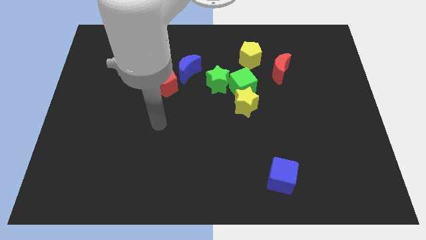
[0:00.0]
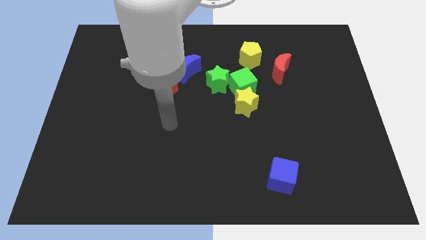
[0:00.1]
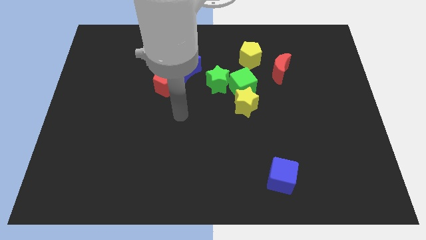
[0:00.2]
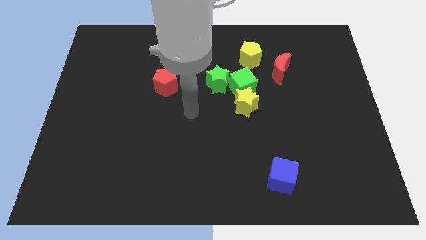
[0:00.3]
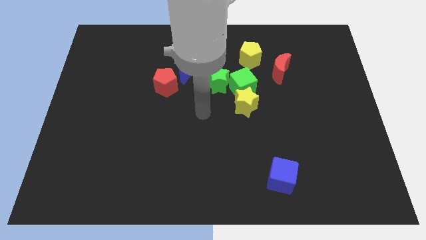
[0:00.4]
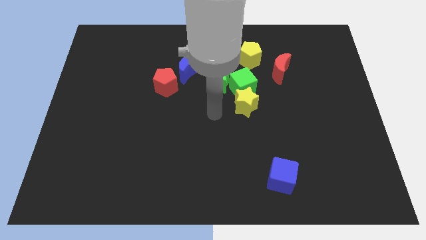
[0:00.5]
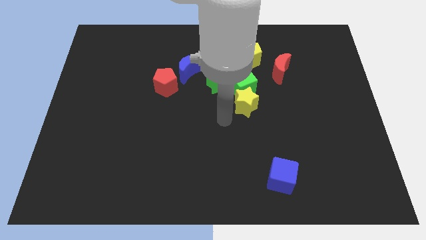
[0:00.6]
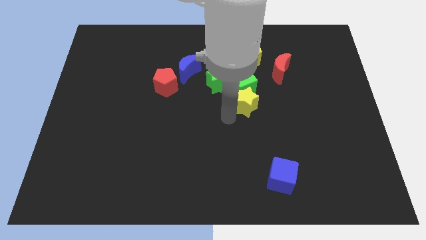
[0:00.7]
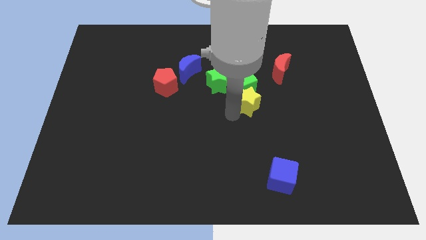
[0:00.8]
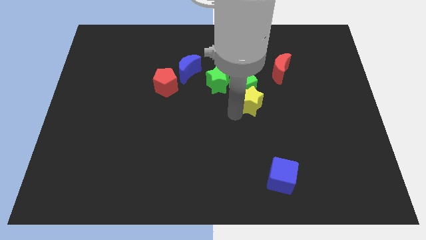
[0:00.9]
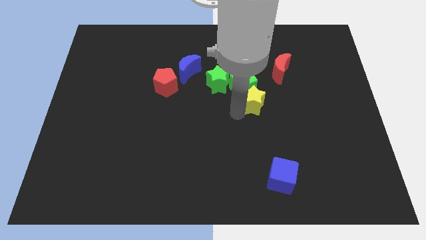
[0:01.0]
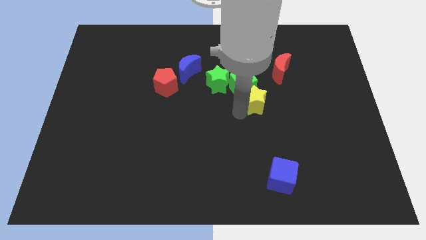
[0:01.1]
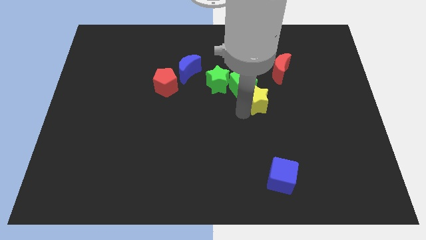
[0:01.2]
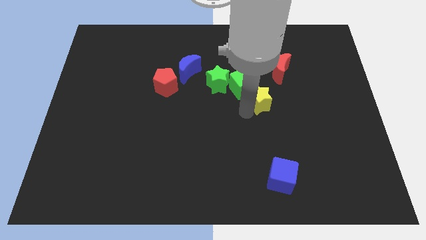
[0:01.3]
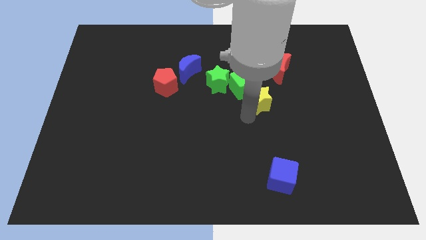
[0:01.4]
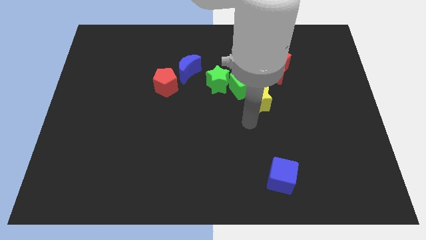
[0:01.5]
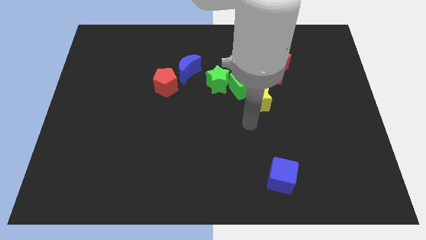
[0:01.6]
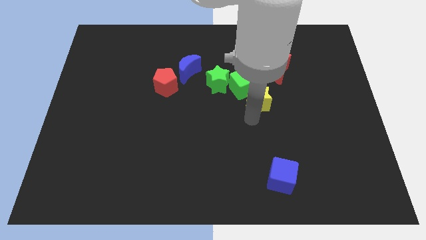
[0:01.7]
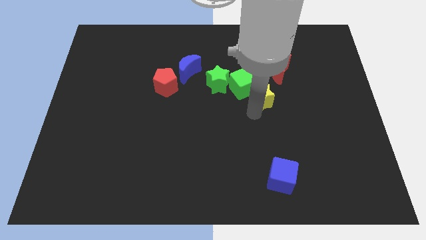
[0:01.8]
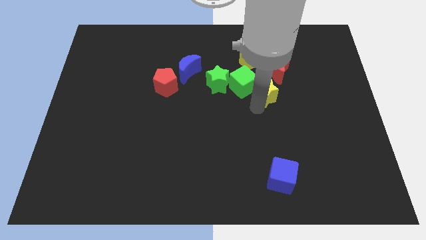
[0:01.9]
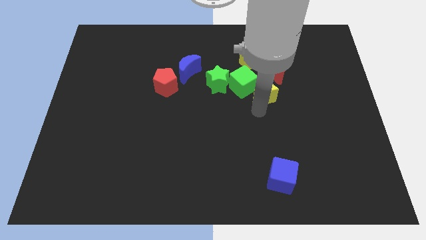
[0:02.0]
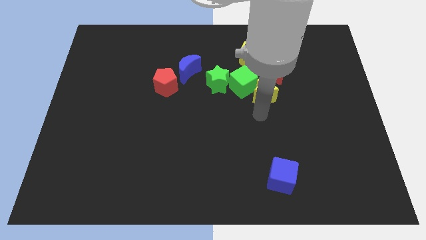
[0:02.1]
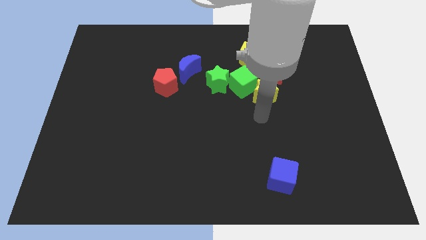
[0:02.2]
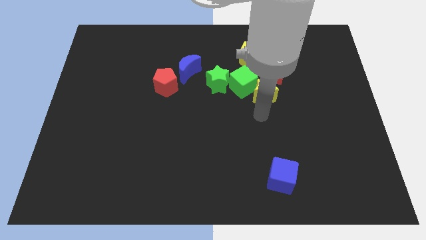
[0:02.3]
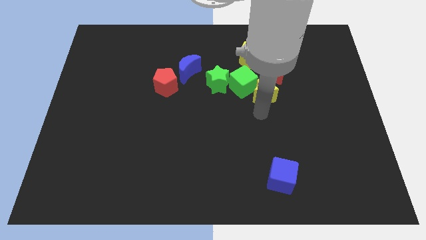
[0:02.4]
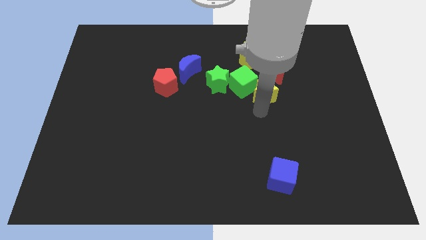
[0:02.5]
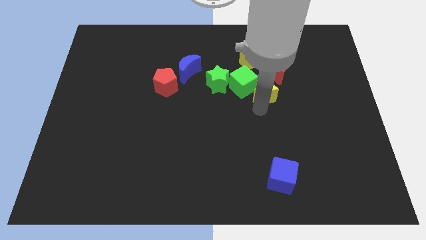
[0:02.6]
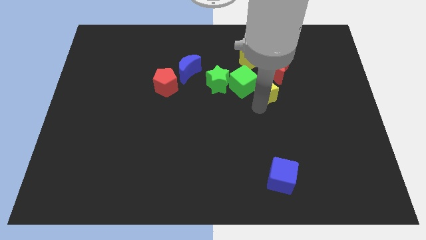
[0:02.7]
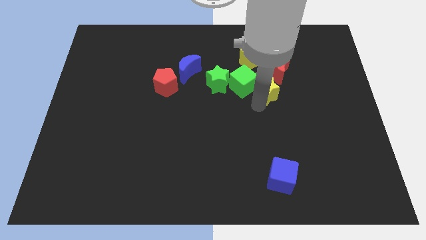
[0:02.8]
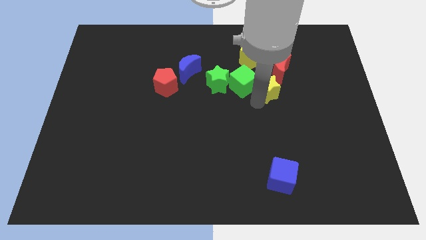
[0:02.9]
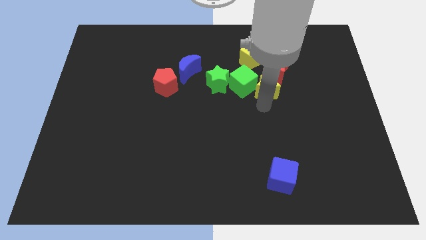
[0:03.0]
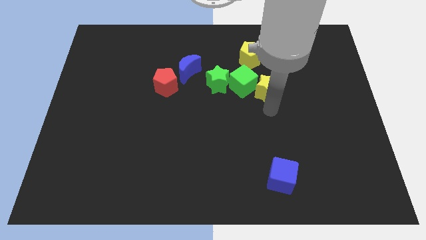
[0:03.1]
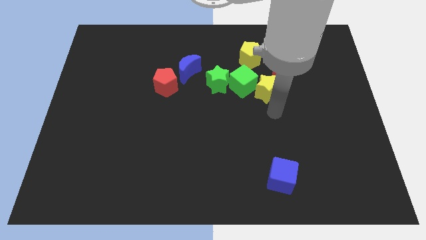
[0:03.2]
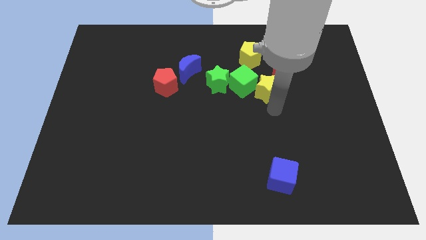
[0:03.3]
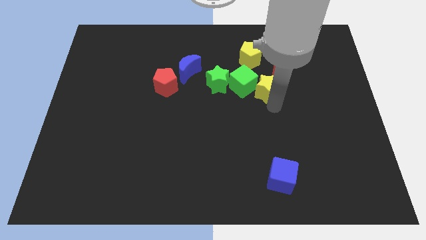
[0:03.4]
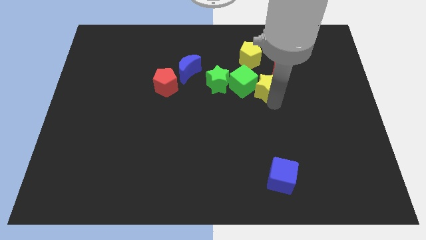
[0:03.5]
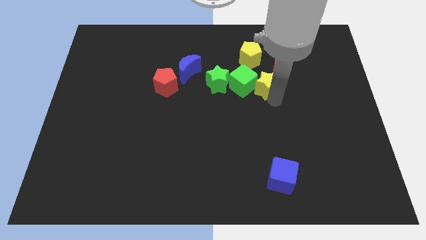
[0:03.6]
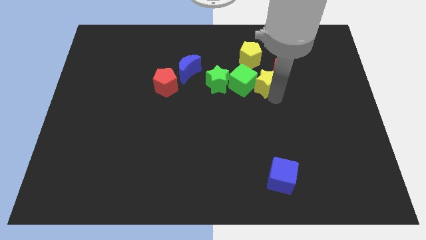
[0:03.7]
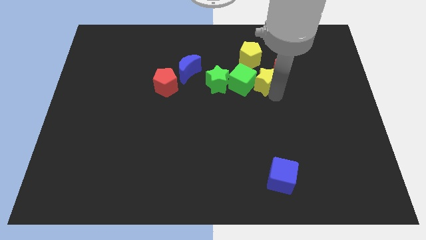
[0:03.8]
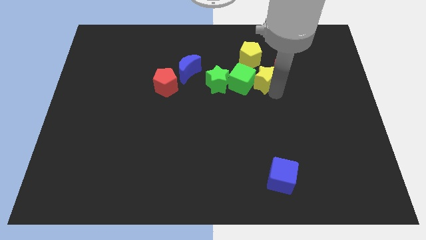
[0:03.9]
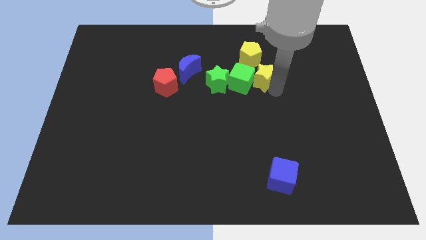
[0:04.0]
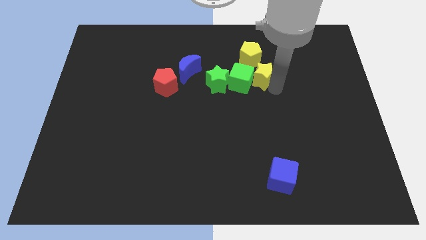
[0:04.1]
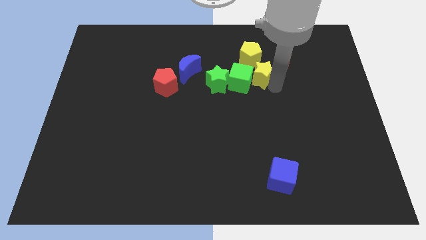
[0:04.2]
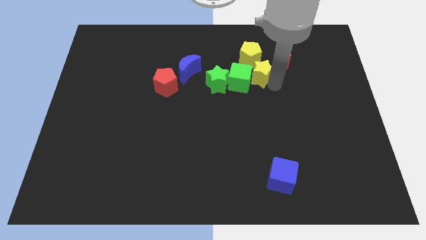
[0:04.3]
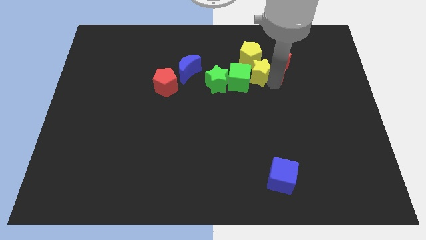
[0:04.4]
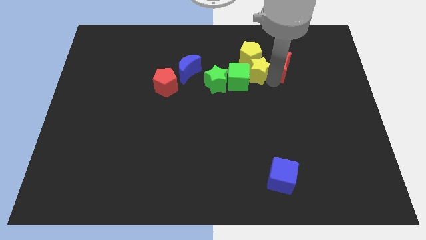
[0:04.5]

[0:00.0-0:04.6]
push the yellow star towards the yellow pentagon

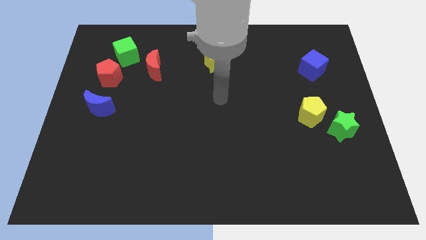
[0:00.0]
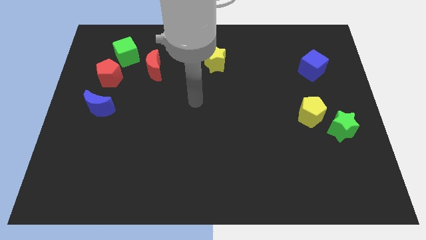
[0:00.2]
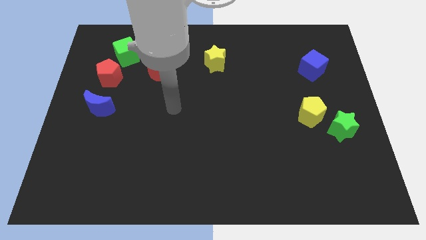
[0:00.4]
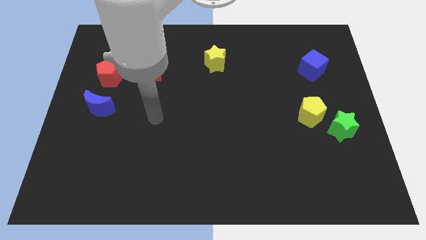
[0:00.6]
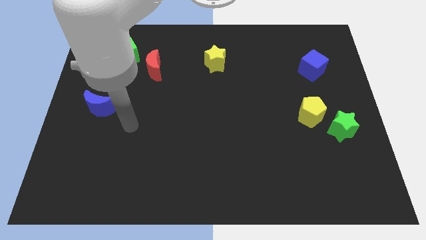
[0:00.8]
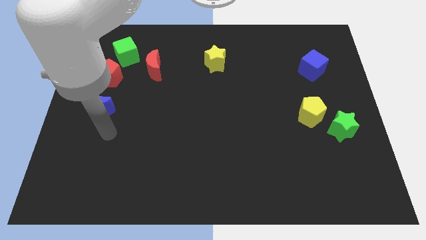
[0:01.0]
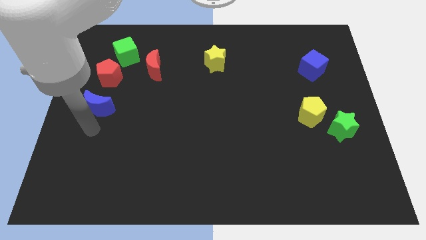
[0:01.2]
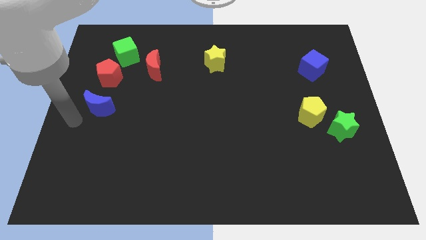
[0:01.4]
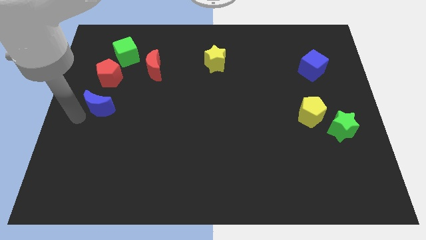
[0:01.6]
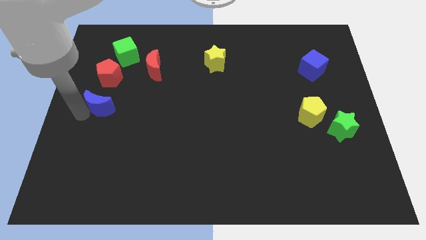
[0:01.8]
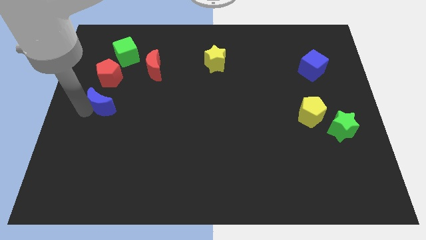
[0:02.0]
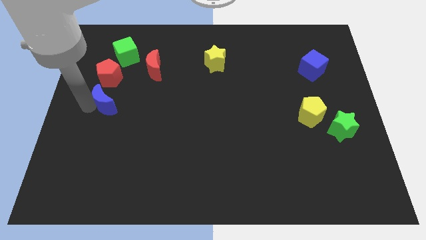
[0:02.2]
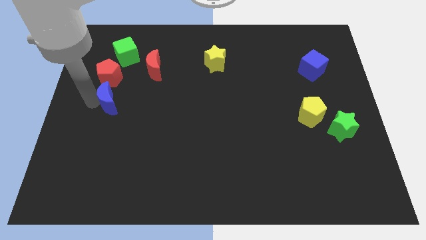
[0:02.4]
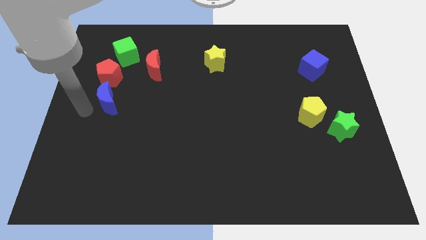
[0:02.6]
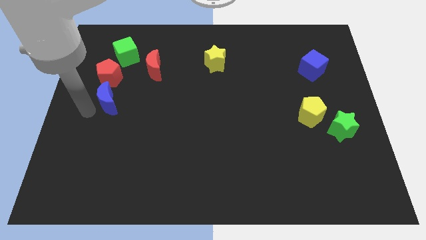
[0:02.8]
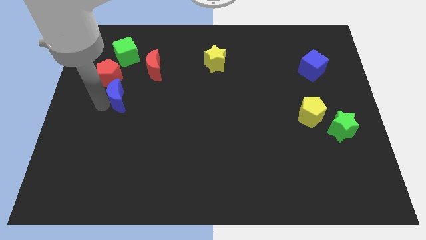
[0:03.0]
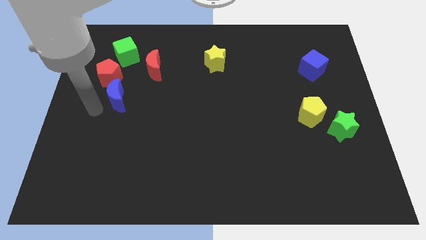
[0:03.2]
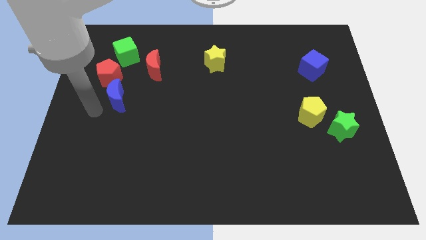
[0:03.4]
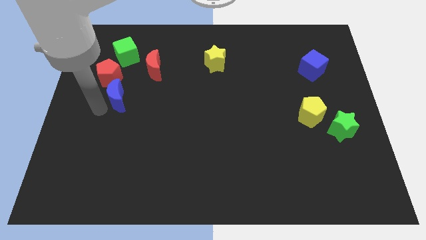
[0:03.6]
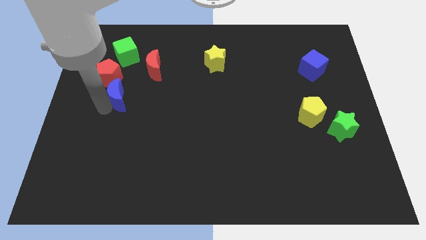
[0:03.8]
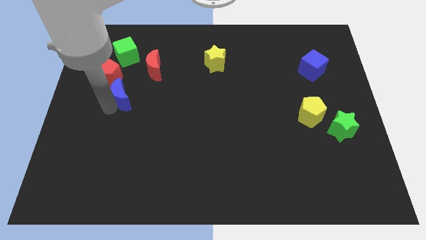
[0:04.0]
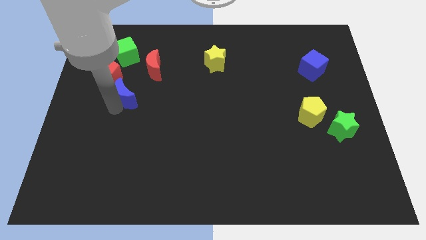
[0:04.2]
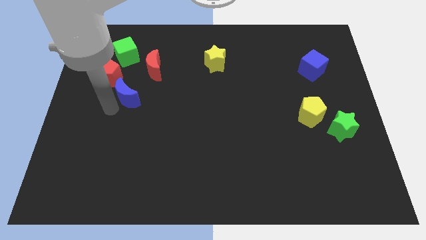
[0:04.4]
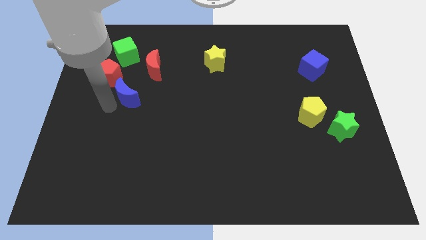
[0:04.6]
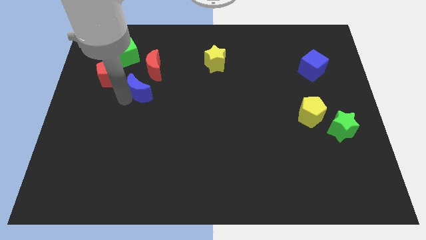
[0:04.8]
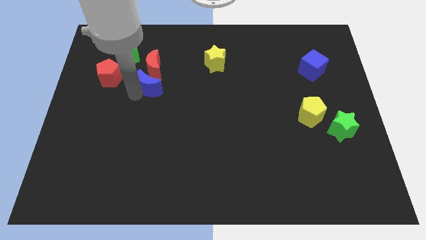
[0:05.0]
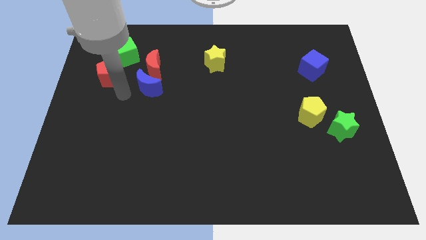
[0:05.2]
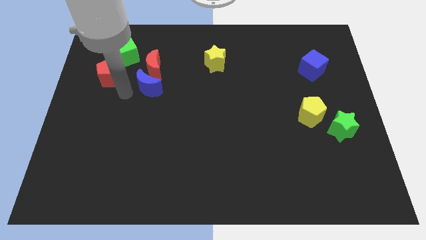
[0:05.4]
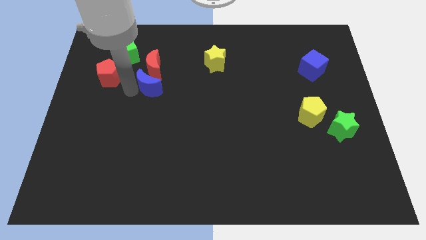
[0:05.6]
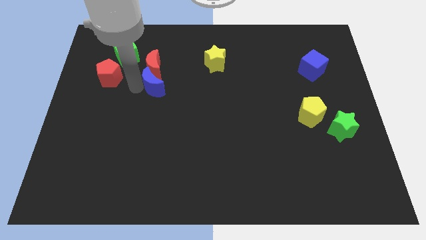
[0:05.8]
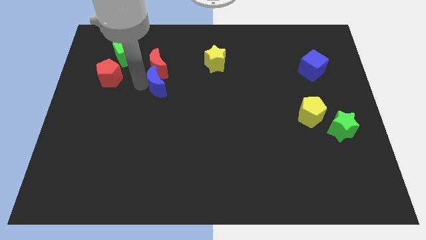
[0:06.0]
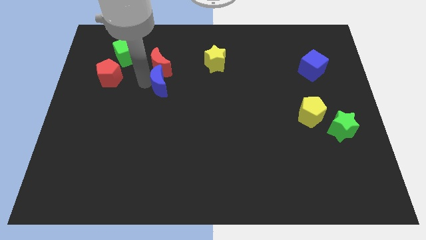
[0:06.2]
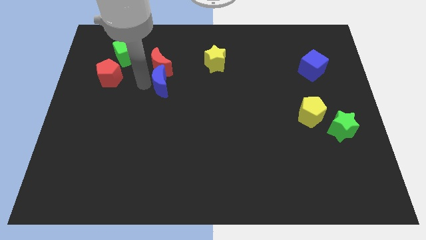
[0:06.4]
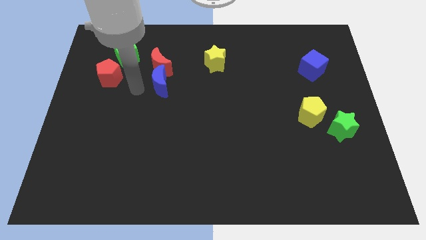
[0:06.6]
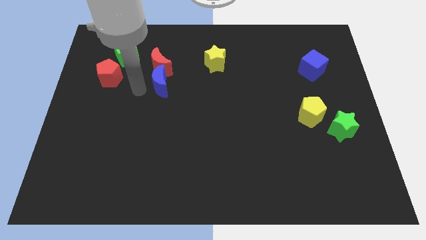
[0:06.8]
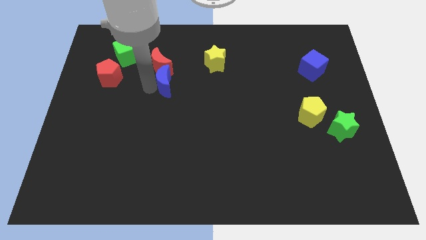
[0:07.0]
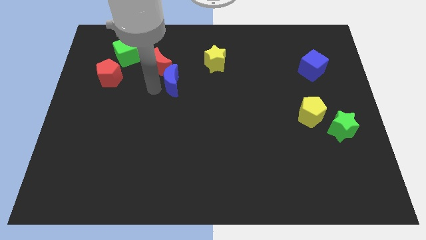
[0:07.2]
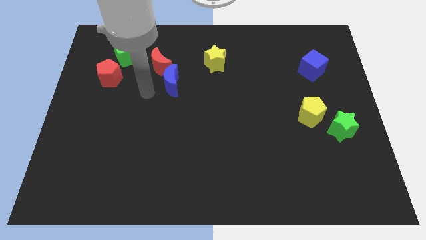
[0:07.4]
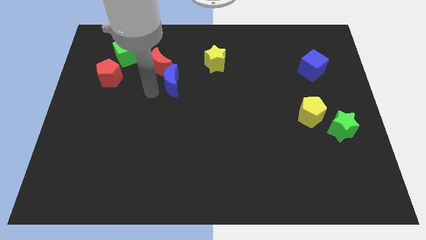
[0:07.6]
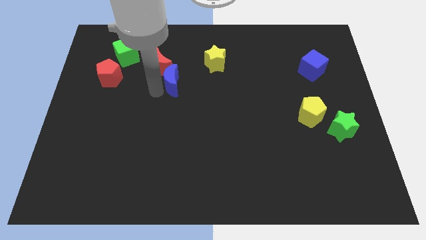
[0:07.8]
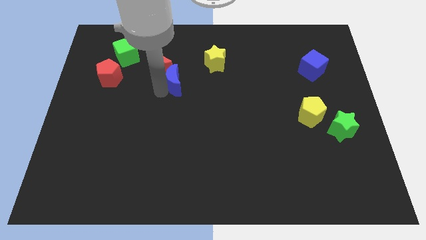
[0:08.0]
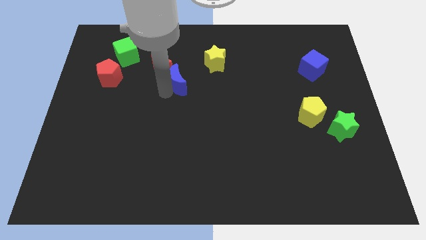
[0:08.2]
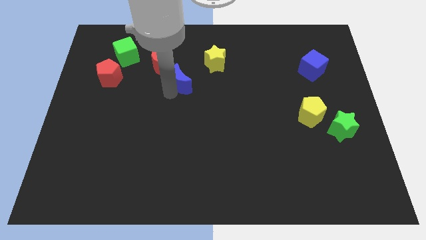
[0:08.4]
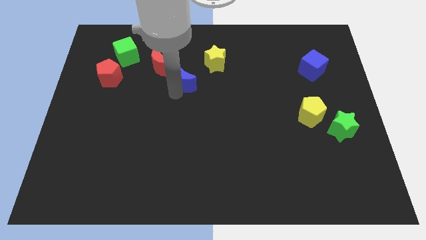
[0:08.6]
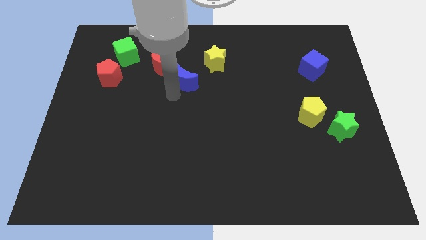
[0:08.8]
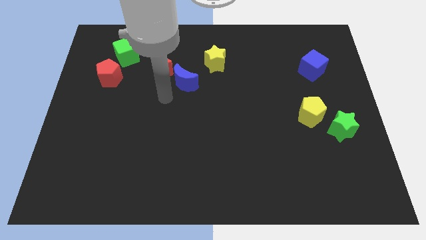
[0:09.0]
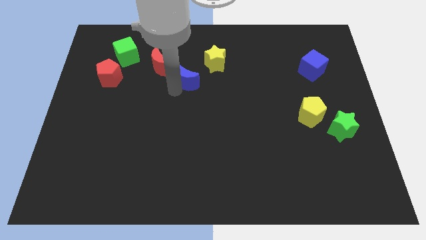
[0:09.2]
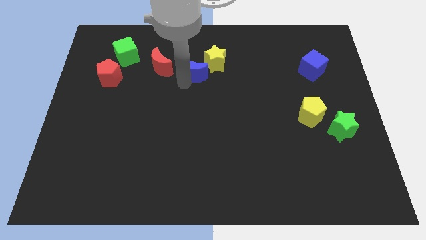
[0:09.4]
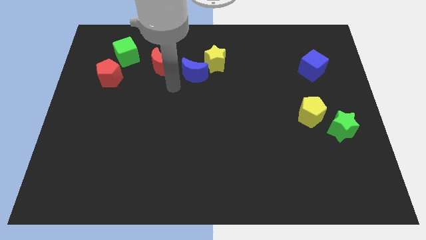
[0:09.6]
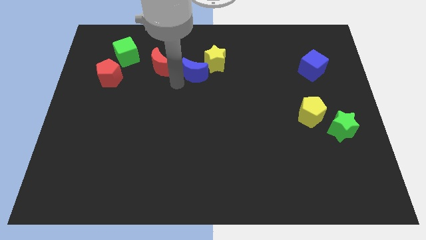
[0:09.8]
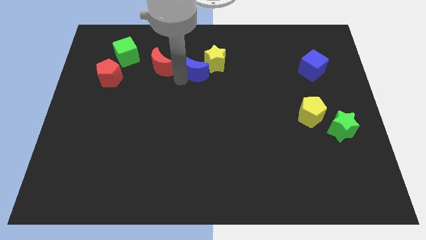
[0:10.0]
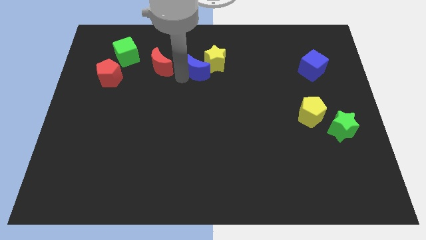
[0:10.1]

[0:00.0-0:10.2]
slide the blue moon next to the yellow star
